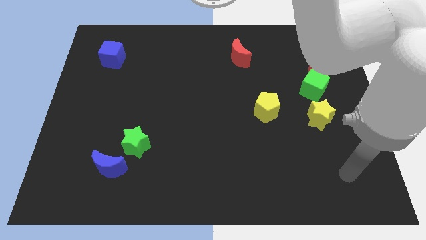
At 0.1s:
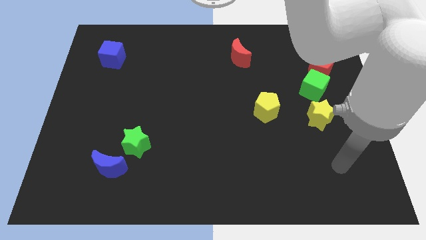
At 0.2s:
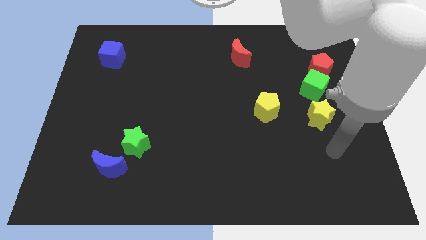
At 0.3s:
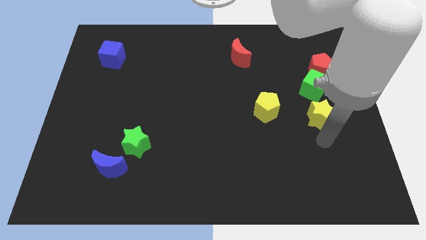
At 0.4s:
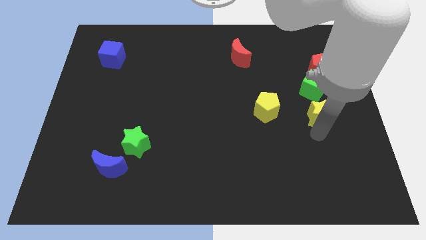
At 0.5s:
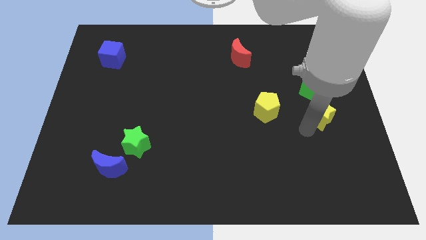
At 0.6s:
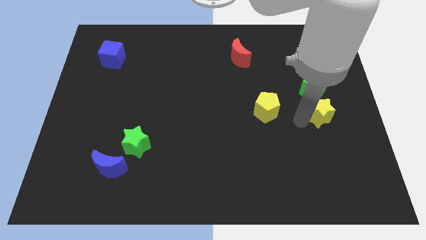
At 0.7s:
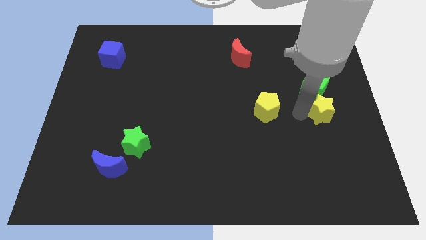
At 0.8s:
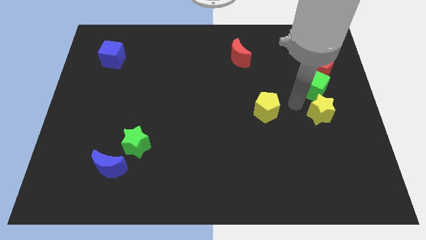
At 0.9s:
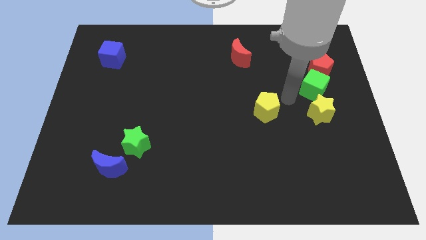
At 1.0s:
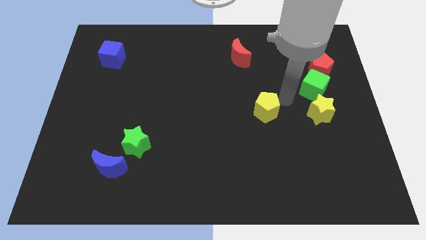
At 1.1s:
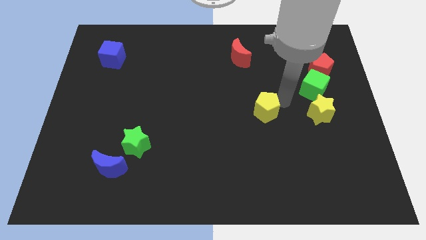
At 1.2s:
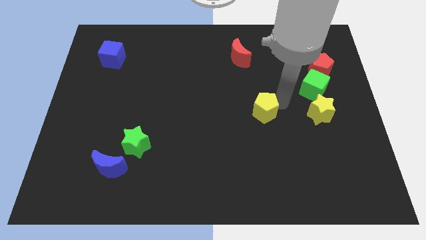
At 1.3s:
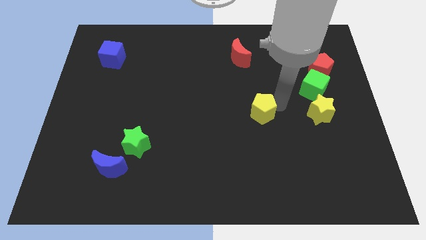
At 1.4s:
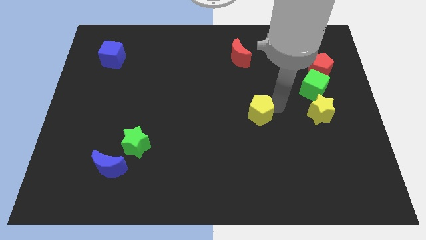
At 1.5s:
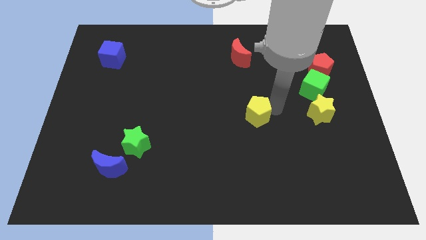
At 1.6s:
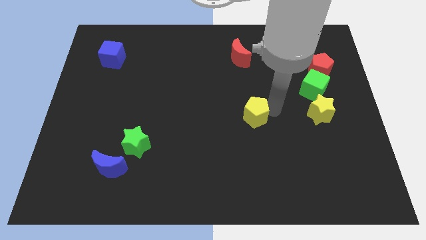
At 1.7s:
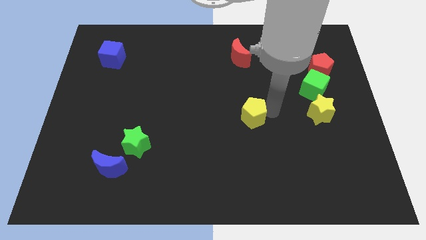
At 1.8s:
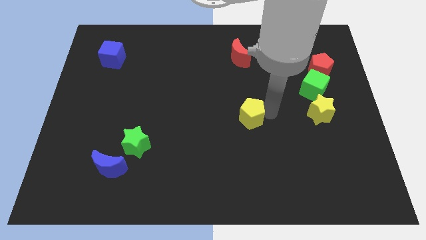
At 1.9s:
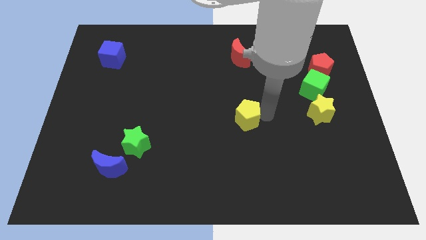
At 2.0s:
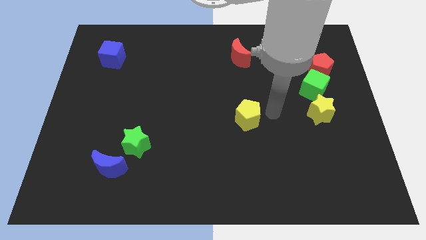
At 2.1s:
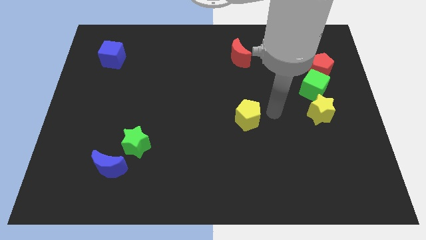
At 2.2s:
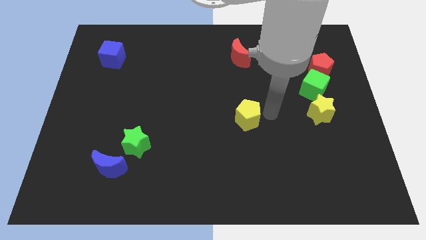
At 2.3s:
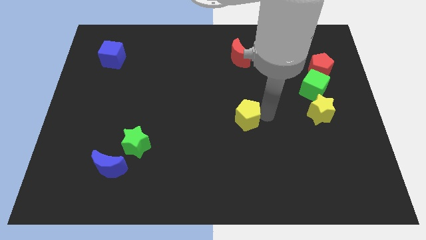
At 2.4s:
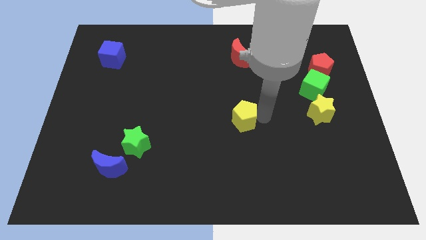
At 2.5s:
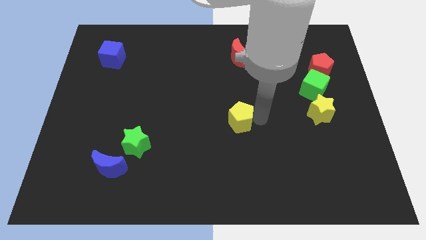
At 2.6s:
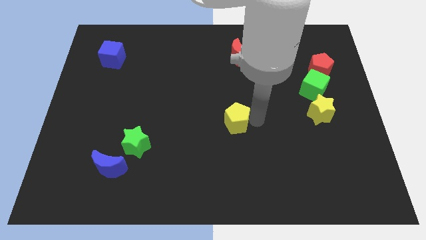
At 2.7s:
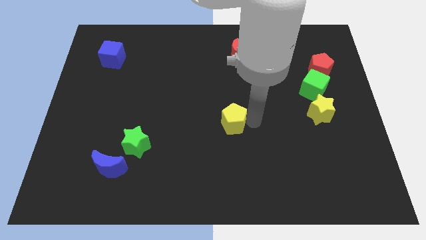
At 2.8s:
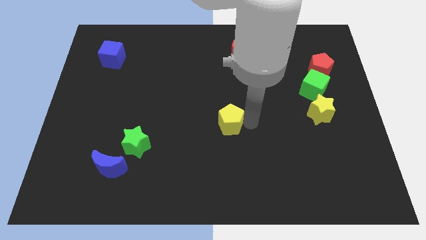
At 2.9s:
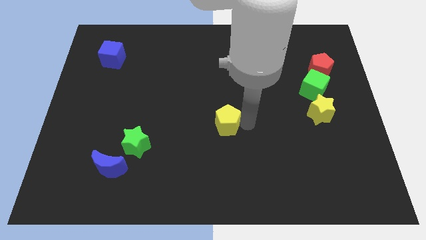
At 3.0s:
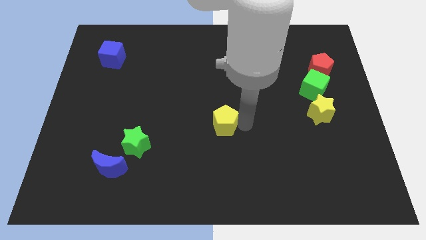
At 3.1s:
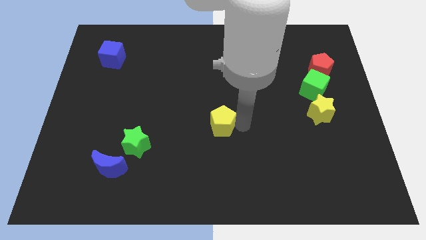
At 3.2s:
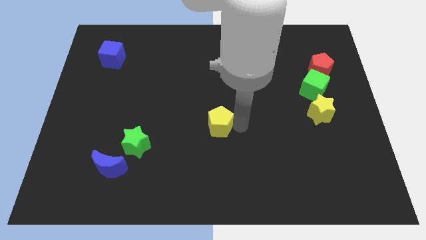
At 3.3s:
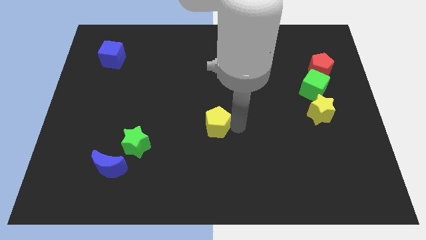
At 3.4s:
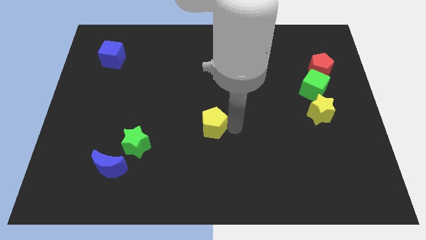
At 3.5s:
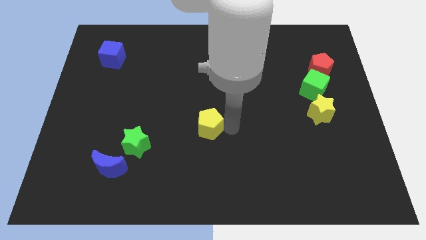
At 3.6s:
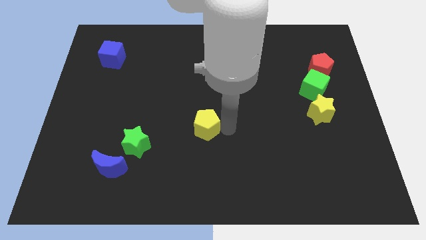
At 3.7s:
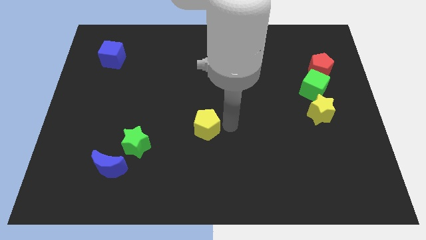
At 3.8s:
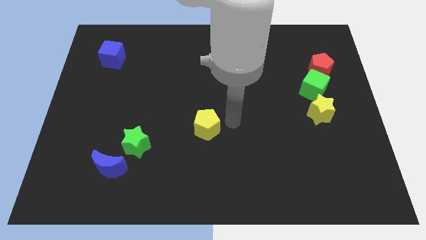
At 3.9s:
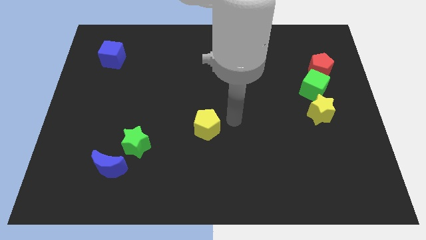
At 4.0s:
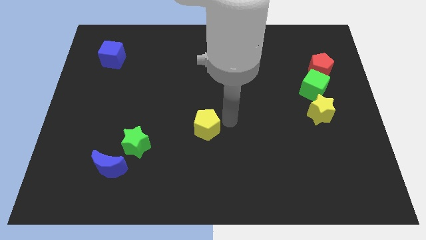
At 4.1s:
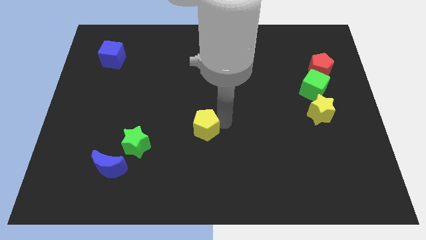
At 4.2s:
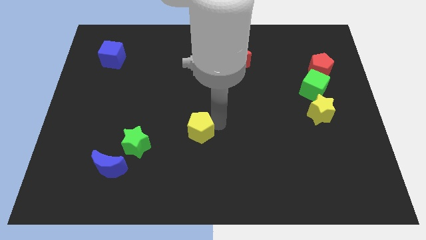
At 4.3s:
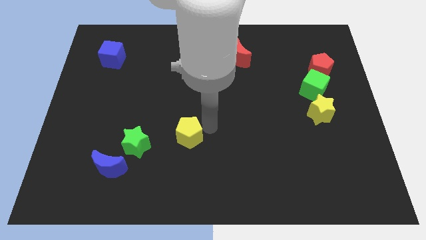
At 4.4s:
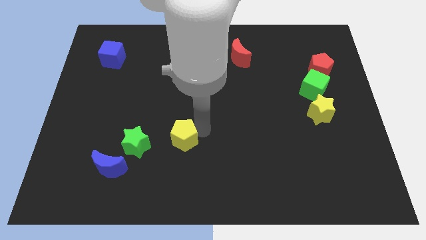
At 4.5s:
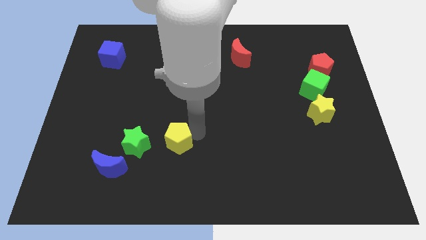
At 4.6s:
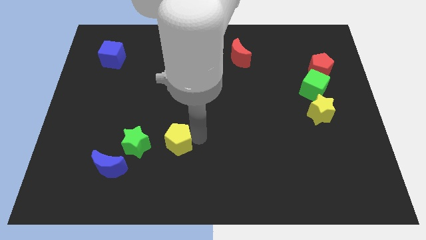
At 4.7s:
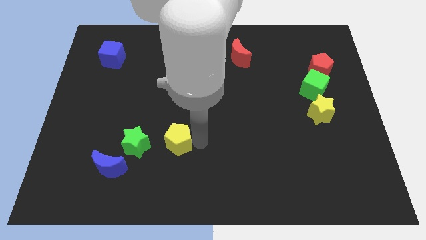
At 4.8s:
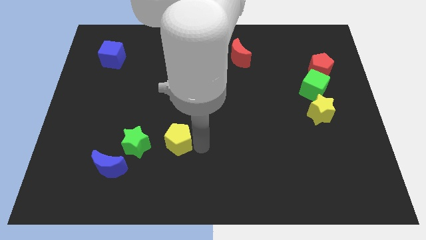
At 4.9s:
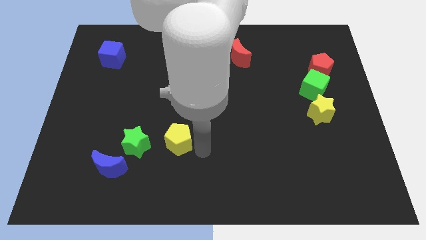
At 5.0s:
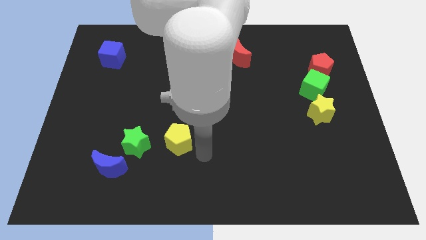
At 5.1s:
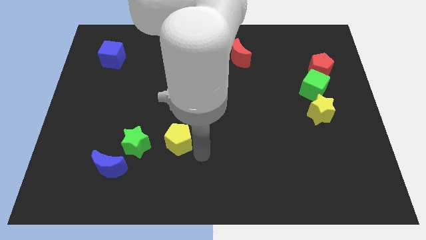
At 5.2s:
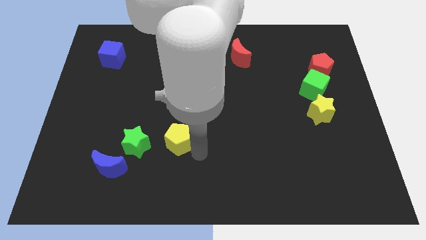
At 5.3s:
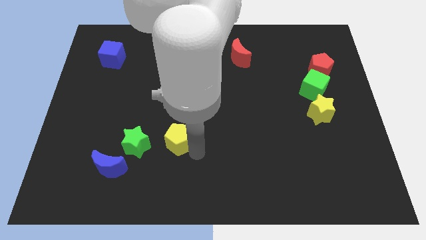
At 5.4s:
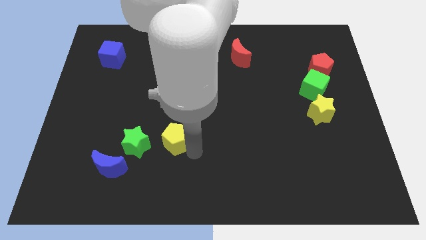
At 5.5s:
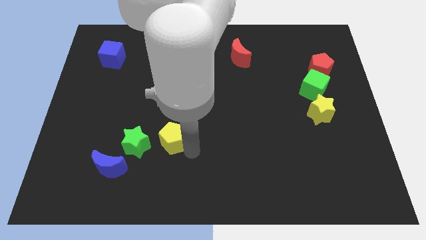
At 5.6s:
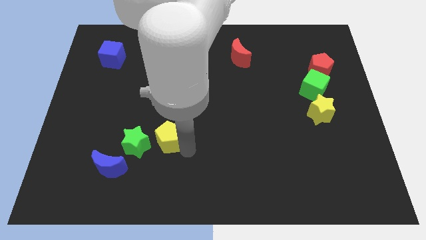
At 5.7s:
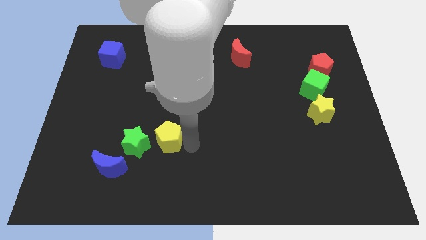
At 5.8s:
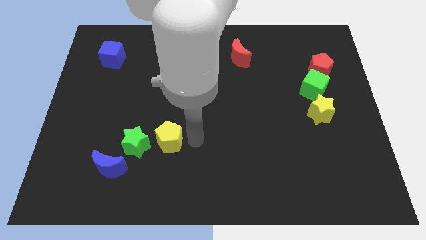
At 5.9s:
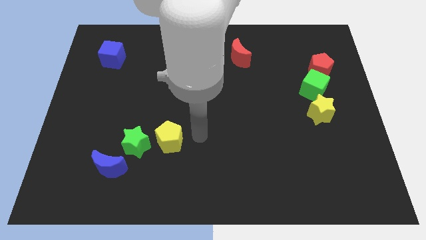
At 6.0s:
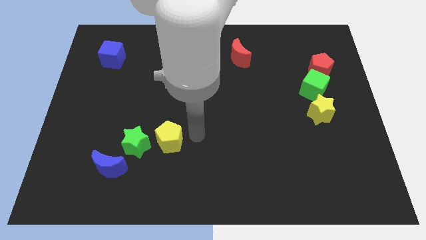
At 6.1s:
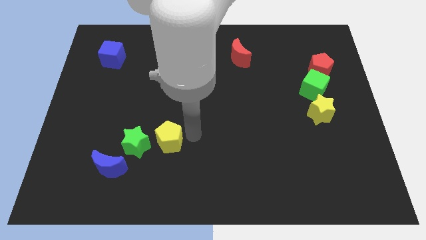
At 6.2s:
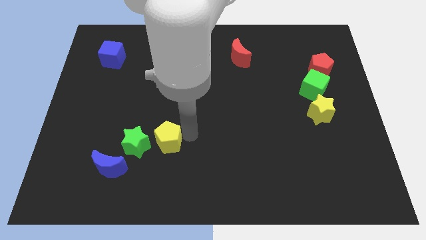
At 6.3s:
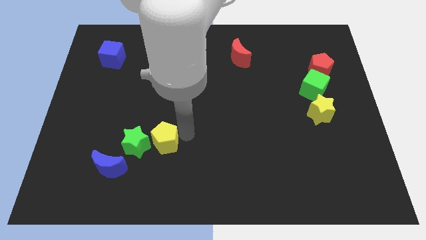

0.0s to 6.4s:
slide the yellow pentagon towards the green star
